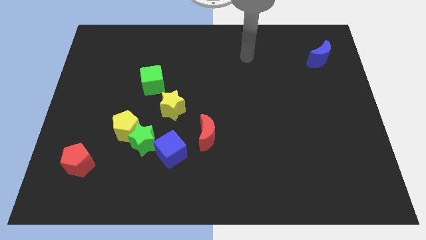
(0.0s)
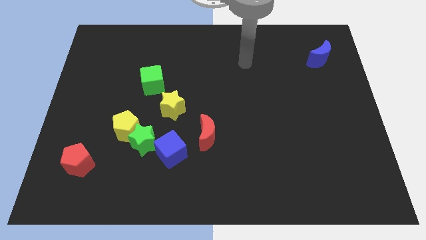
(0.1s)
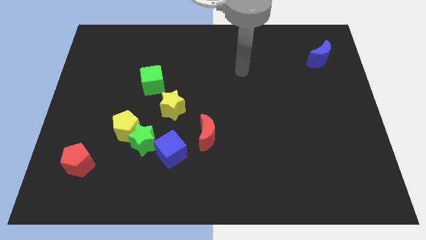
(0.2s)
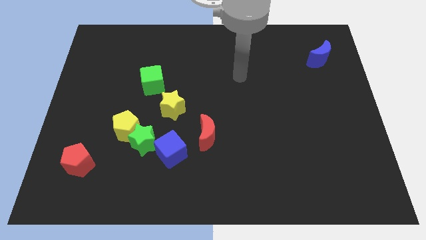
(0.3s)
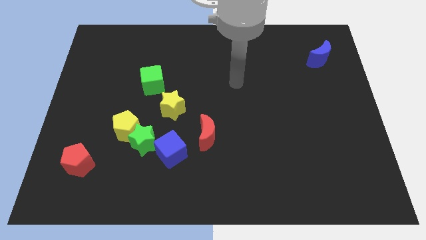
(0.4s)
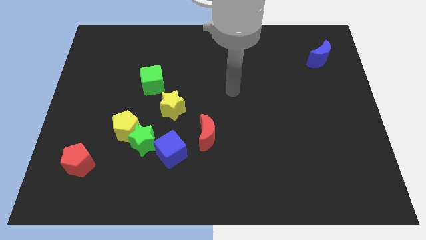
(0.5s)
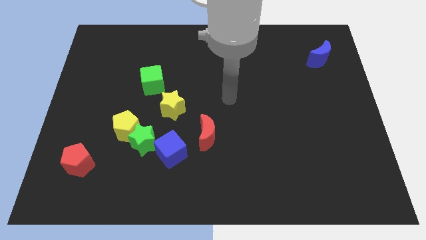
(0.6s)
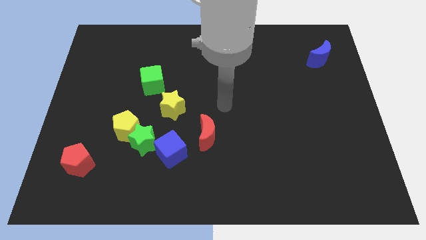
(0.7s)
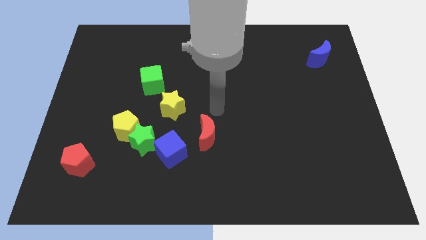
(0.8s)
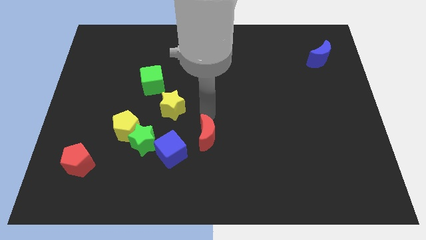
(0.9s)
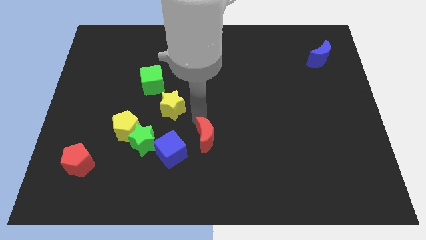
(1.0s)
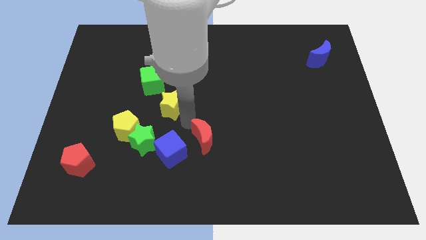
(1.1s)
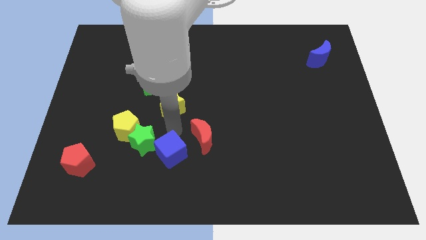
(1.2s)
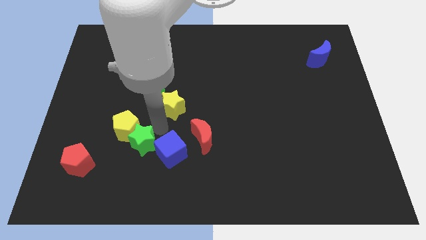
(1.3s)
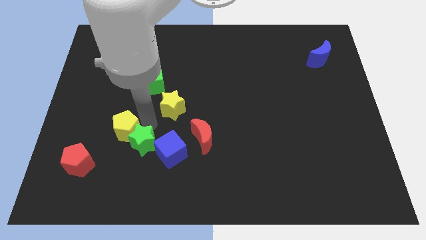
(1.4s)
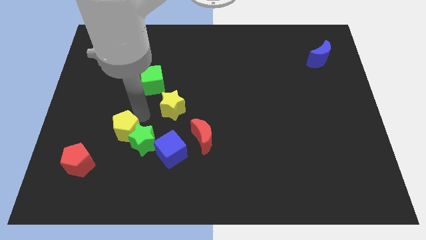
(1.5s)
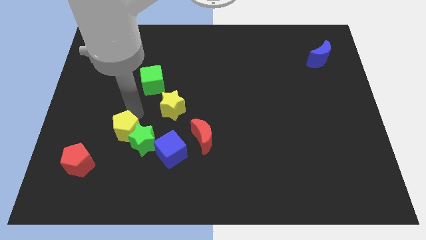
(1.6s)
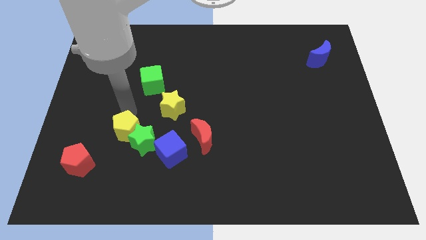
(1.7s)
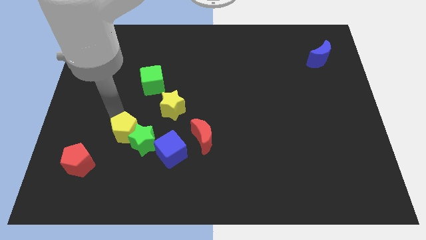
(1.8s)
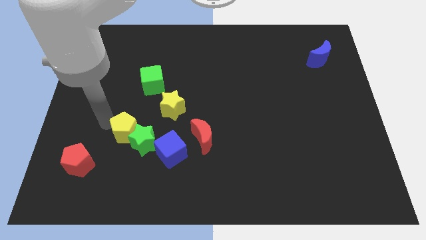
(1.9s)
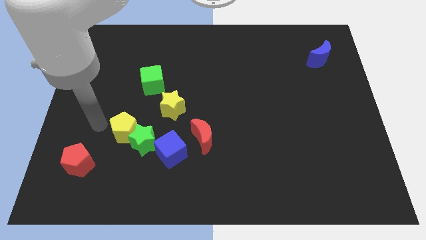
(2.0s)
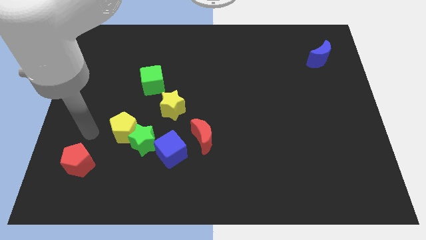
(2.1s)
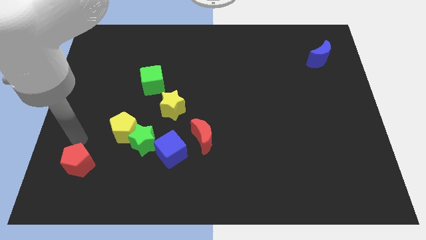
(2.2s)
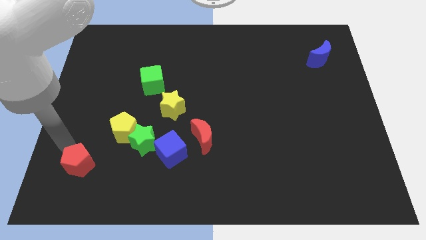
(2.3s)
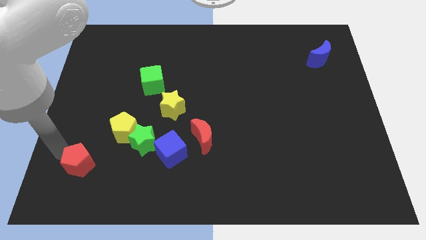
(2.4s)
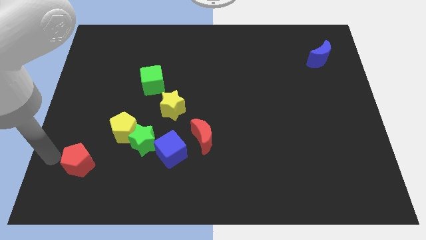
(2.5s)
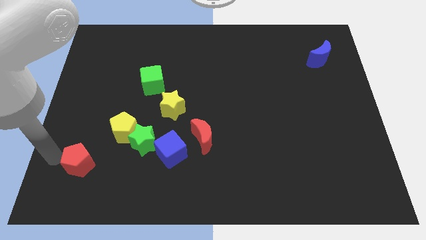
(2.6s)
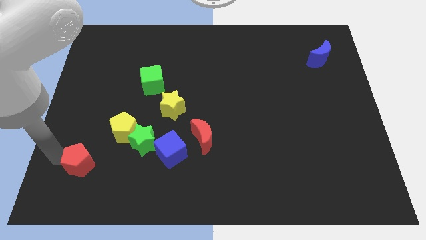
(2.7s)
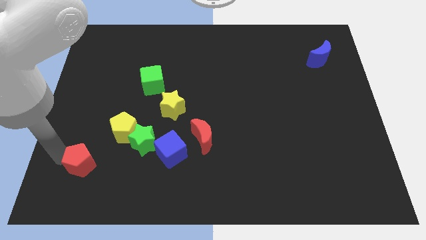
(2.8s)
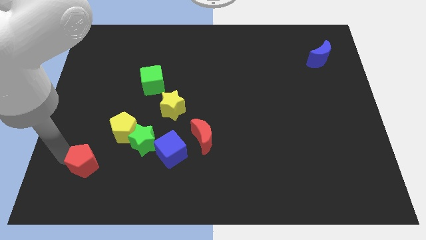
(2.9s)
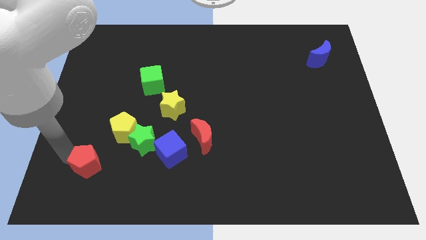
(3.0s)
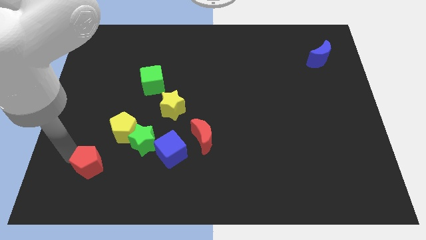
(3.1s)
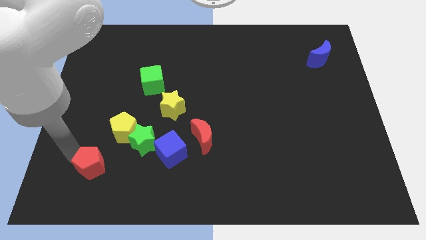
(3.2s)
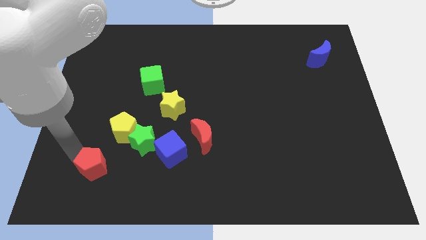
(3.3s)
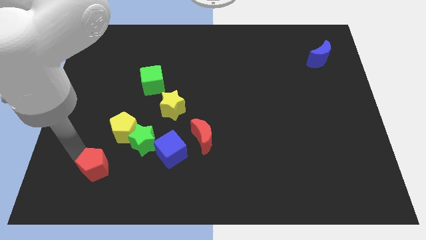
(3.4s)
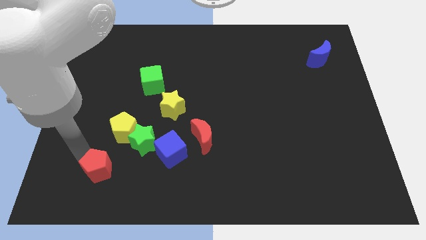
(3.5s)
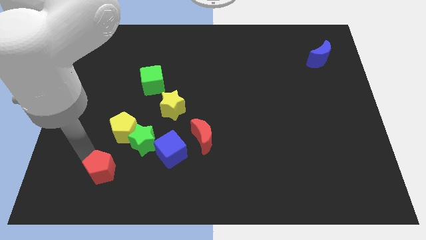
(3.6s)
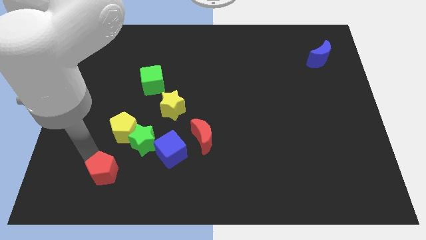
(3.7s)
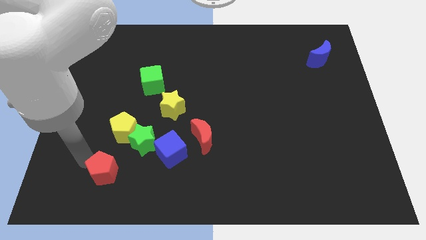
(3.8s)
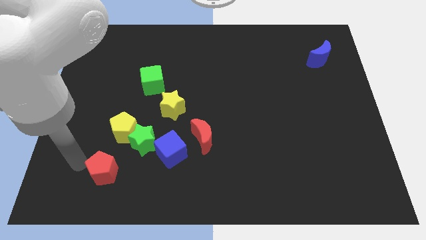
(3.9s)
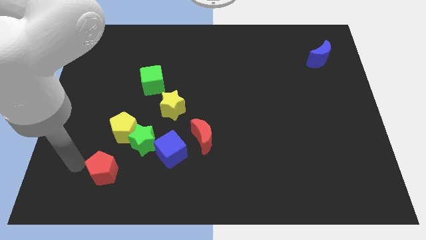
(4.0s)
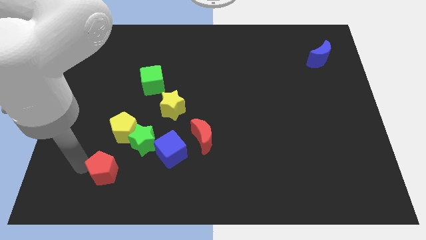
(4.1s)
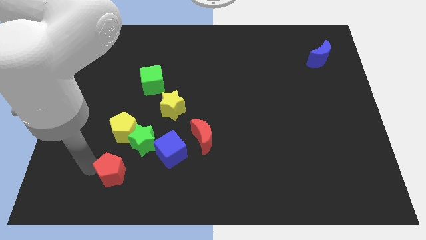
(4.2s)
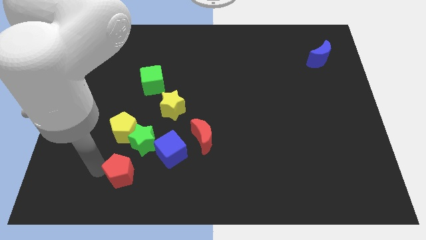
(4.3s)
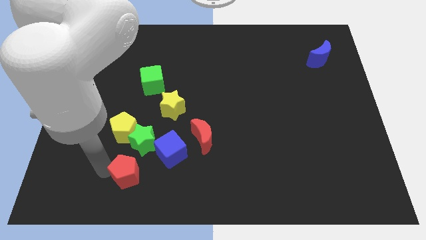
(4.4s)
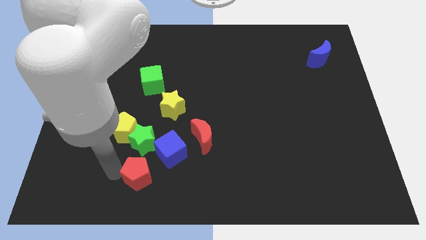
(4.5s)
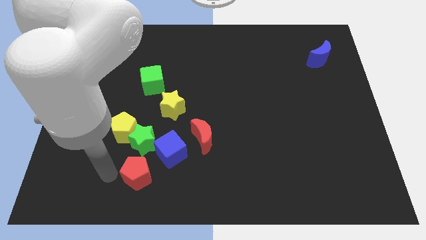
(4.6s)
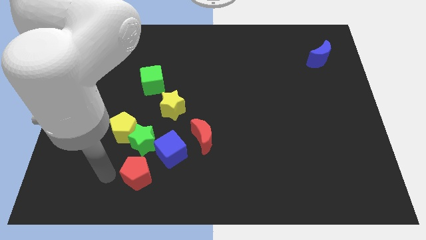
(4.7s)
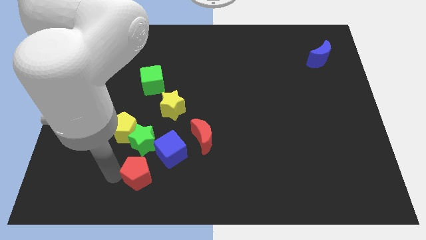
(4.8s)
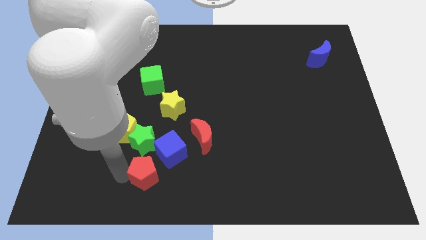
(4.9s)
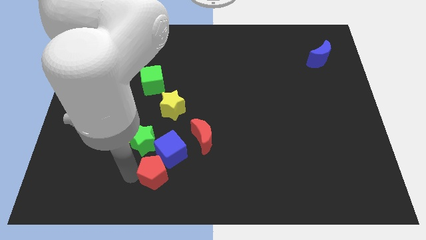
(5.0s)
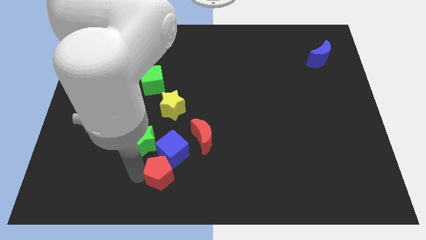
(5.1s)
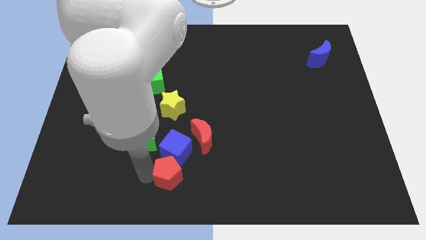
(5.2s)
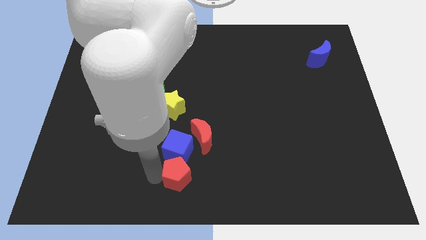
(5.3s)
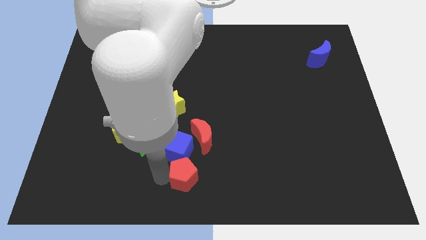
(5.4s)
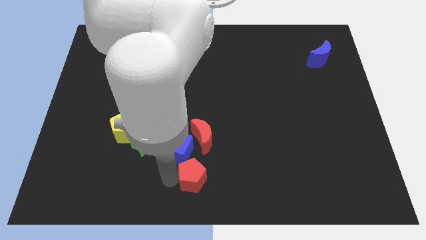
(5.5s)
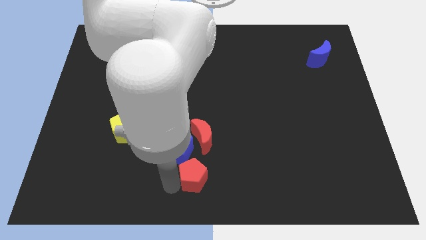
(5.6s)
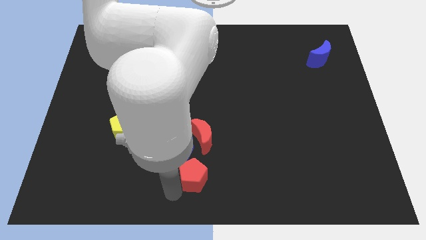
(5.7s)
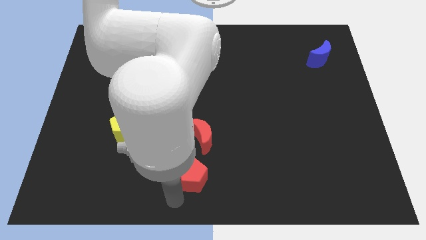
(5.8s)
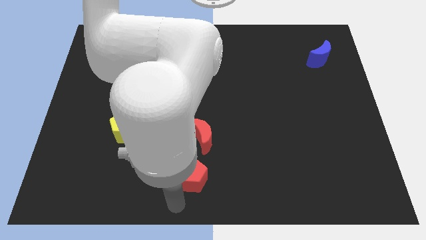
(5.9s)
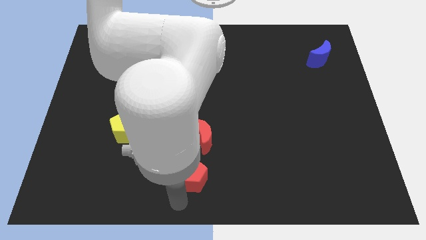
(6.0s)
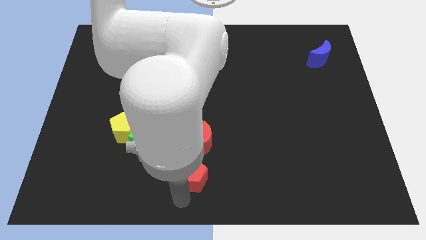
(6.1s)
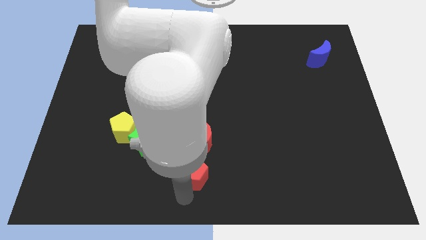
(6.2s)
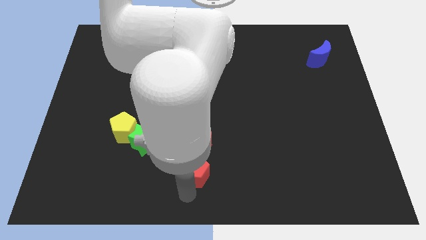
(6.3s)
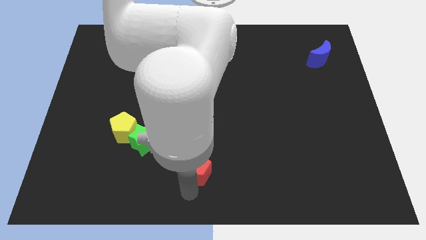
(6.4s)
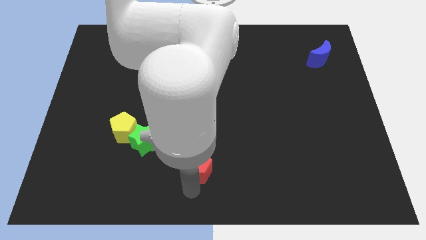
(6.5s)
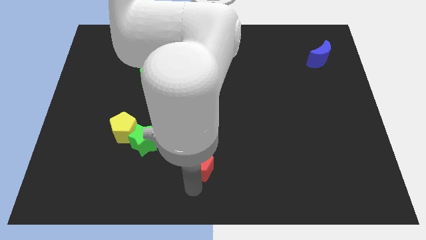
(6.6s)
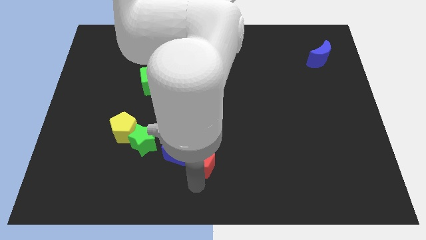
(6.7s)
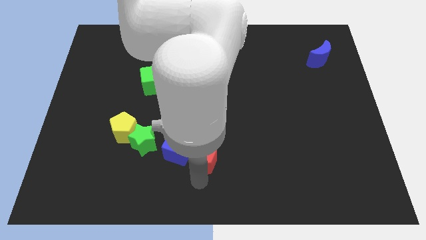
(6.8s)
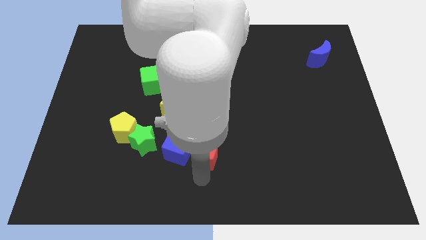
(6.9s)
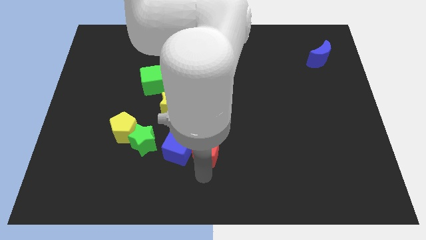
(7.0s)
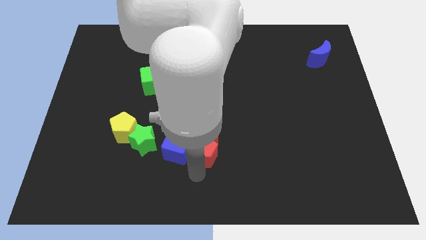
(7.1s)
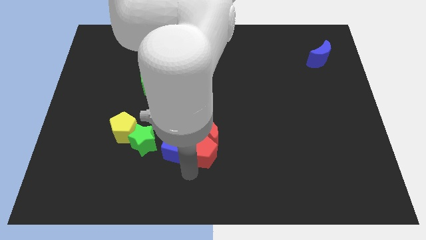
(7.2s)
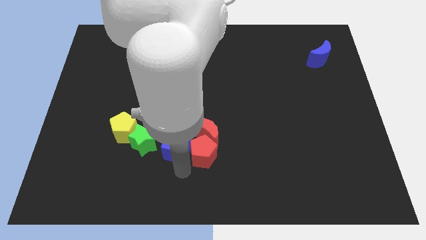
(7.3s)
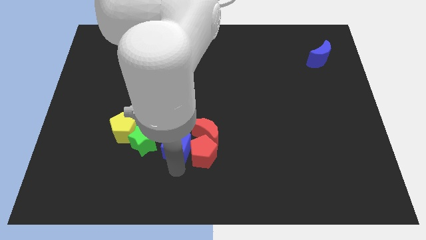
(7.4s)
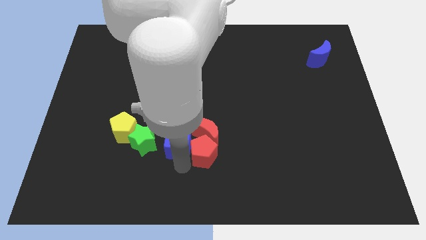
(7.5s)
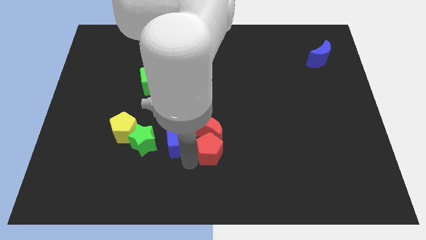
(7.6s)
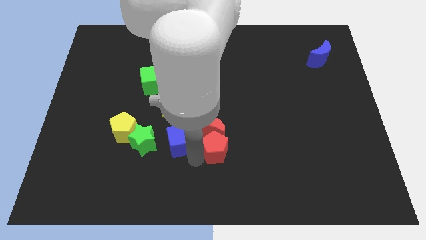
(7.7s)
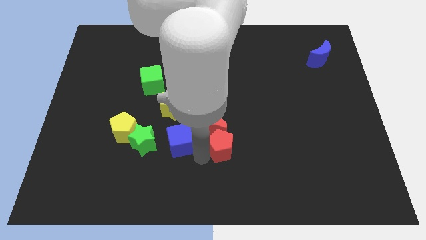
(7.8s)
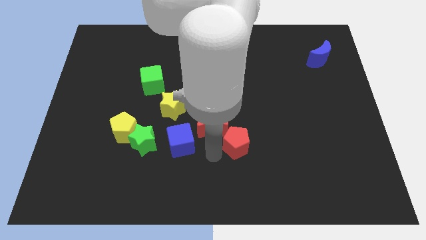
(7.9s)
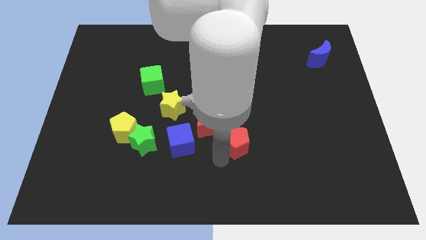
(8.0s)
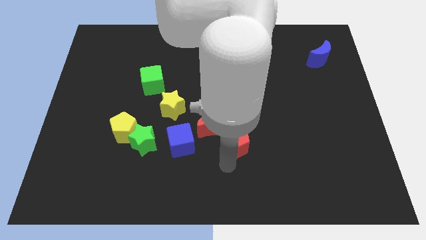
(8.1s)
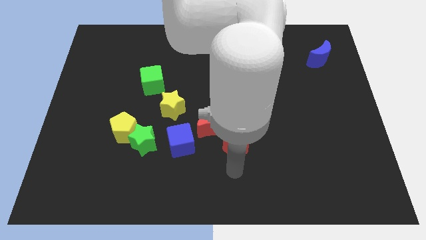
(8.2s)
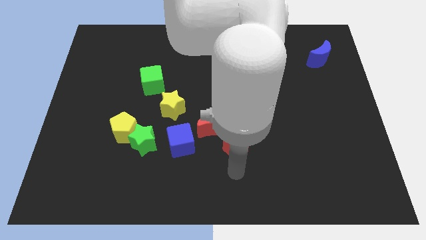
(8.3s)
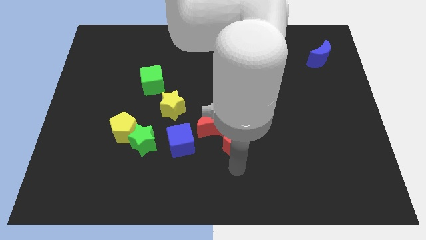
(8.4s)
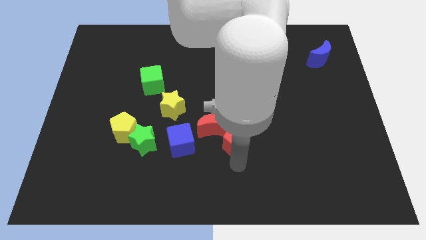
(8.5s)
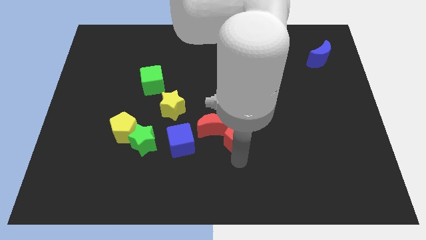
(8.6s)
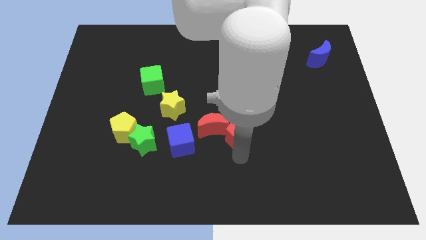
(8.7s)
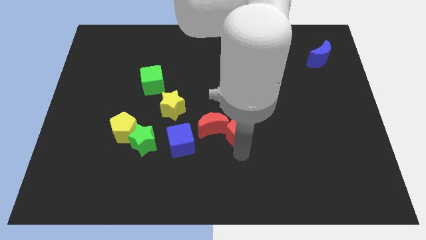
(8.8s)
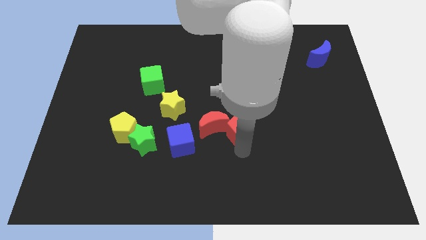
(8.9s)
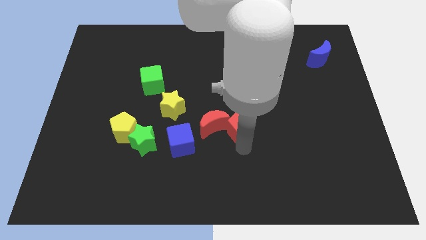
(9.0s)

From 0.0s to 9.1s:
slide the red pentagon to the top right of the red moon
